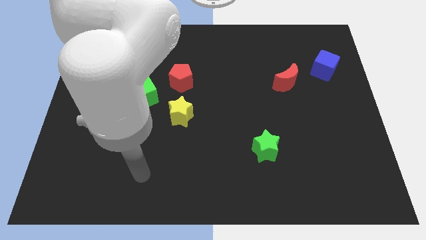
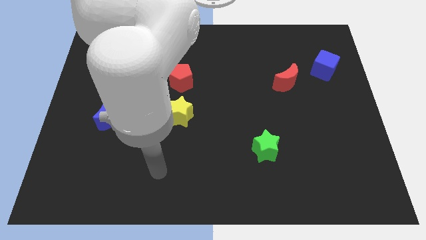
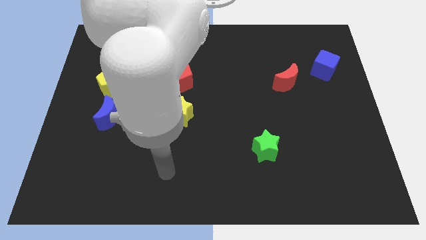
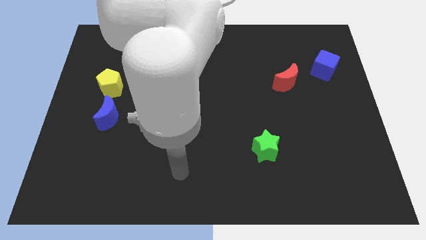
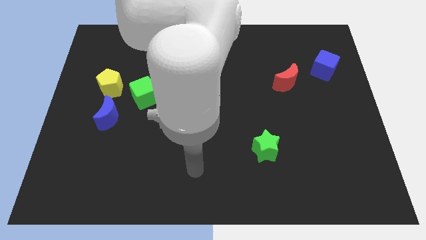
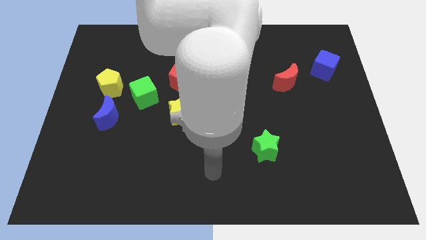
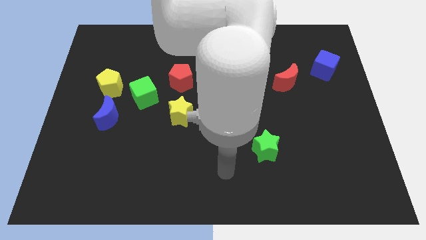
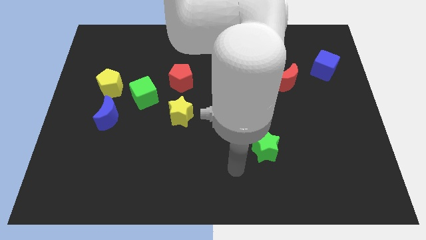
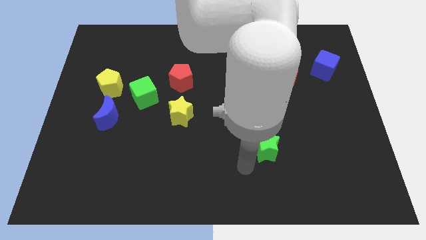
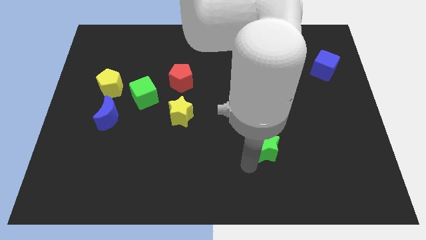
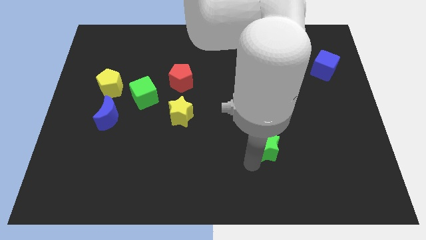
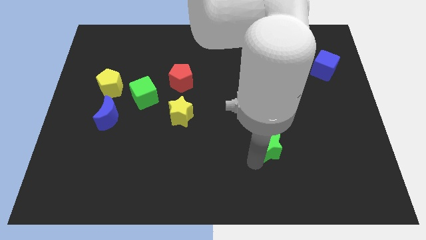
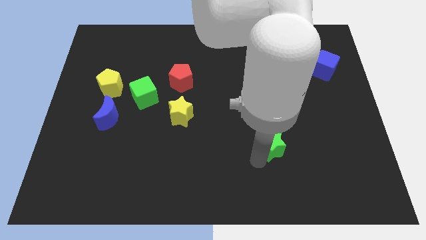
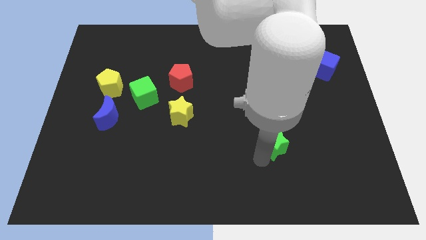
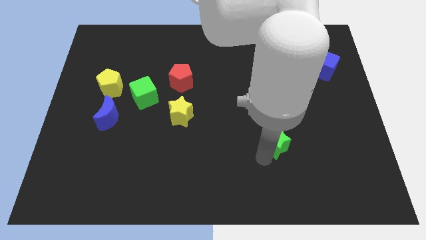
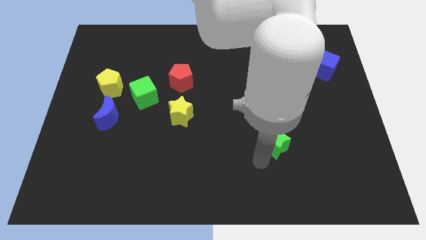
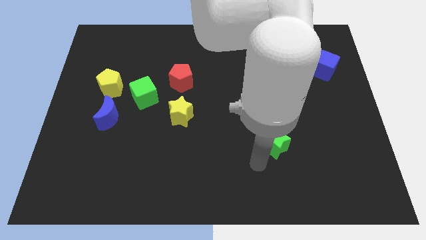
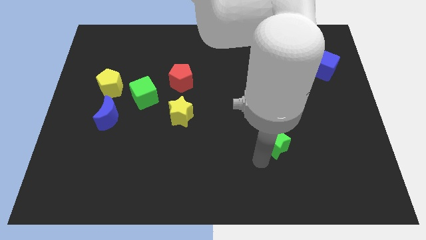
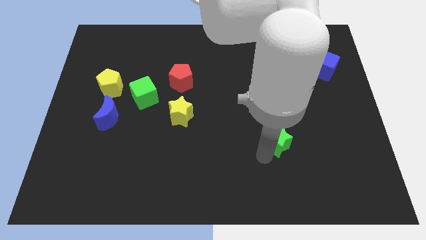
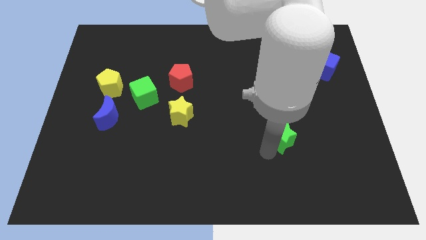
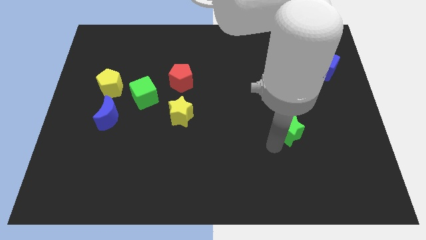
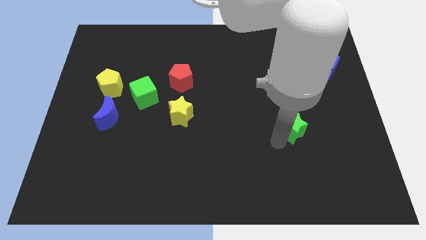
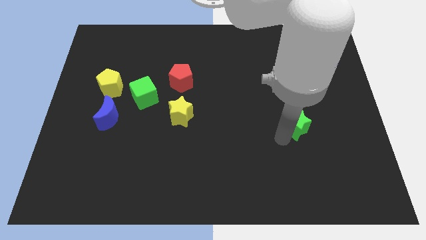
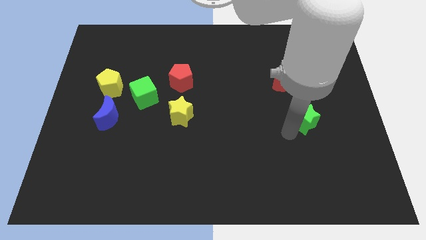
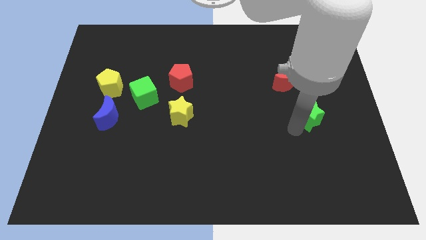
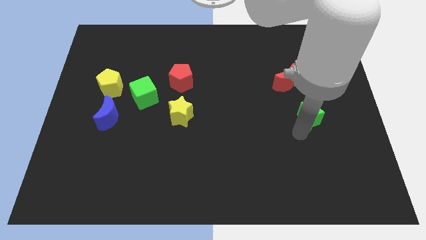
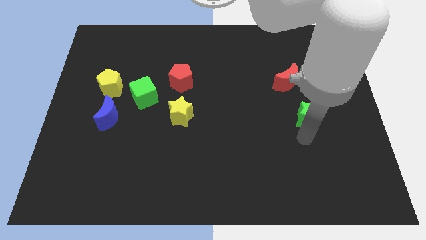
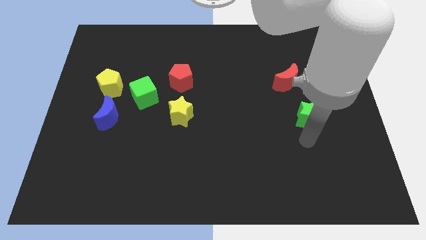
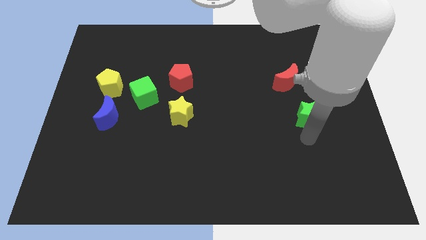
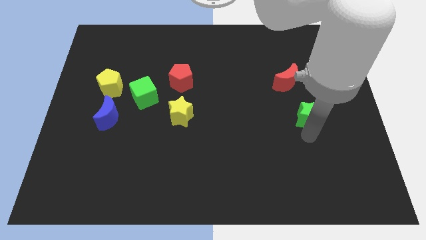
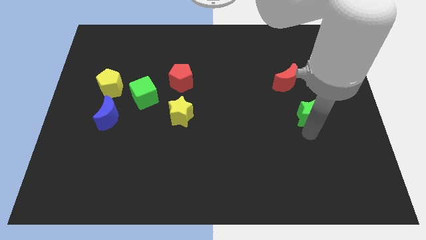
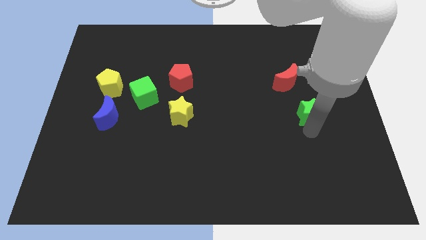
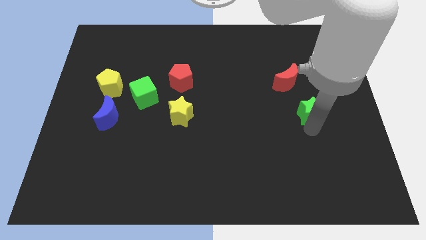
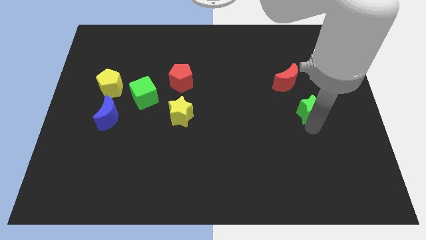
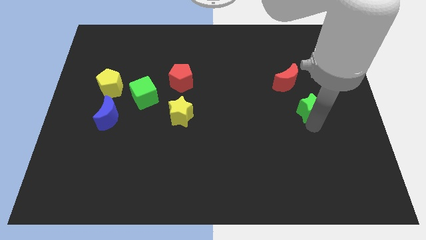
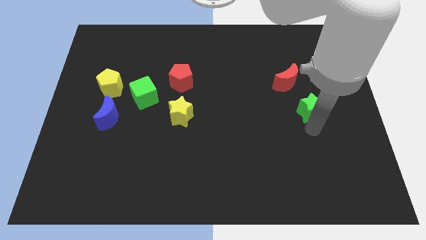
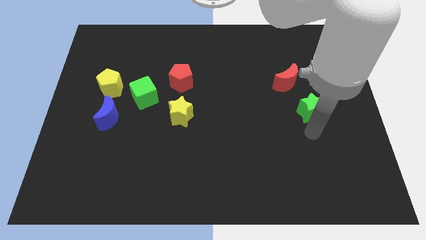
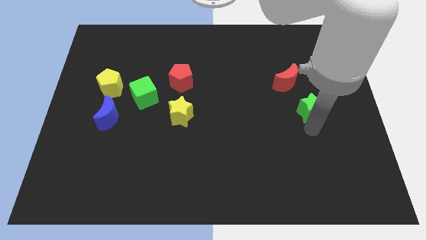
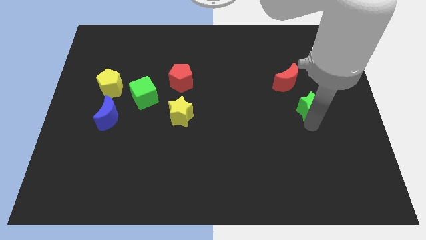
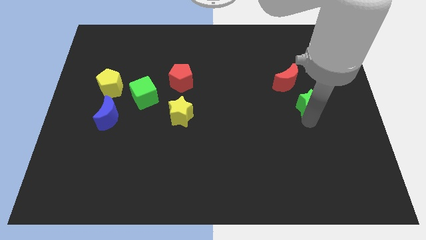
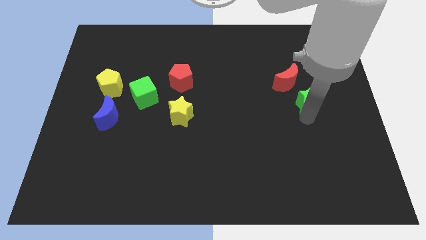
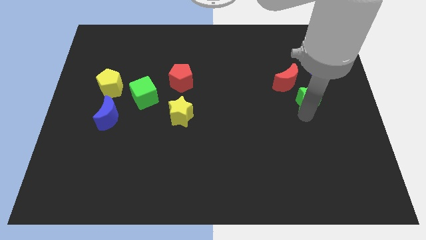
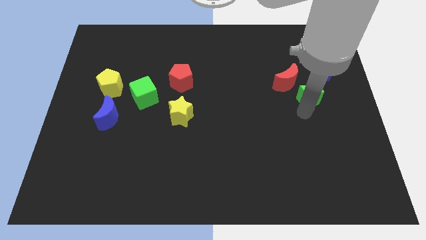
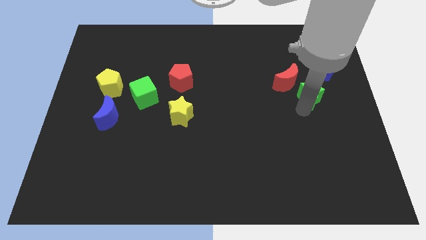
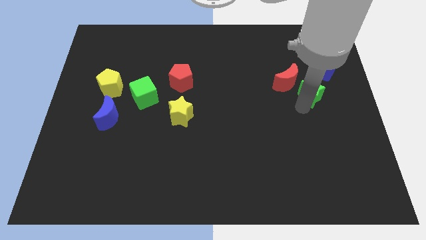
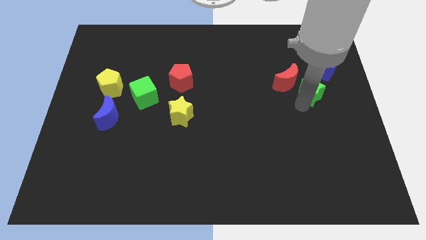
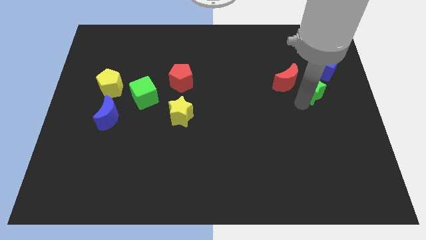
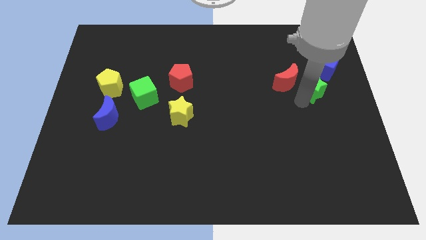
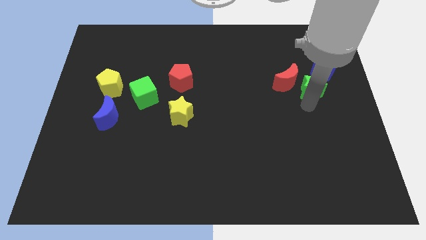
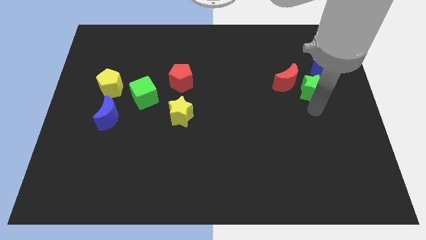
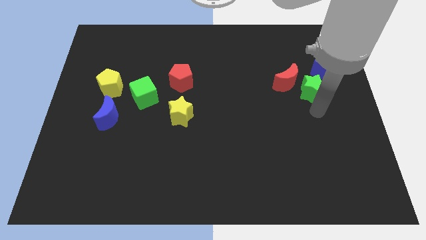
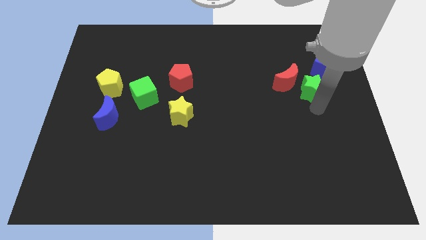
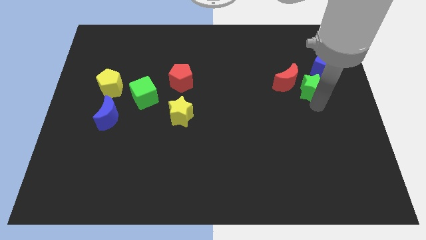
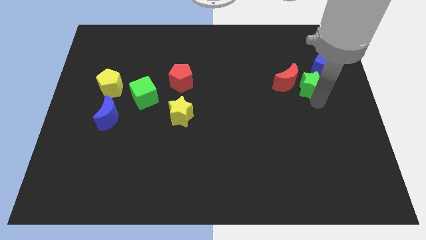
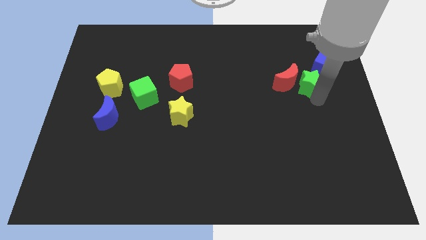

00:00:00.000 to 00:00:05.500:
move the green star diagonally up and to the right of the red moon

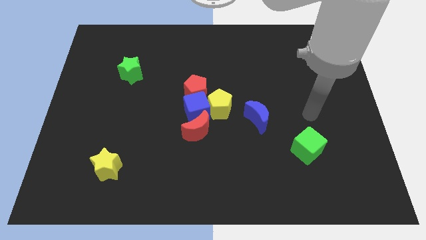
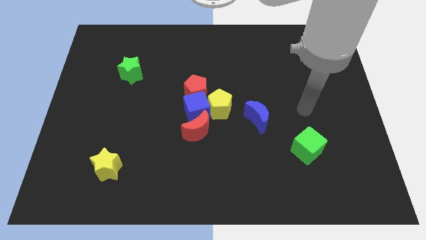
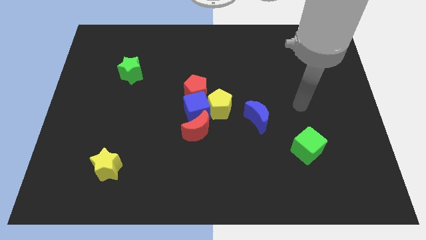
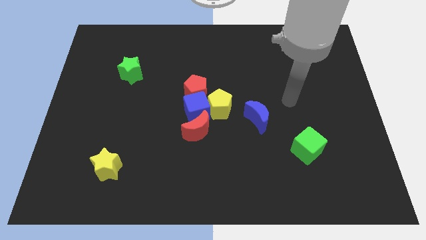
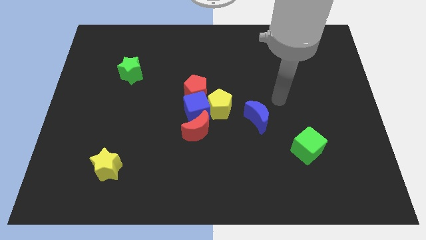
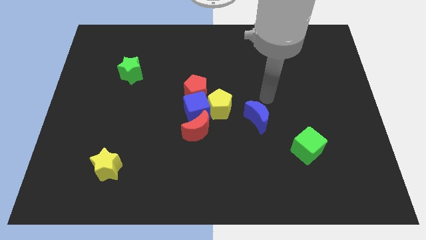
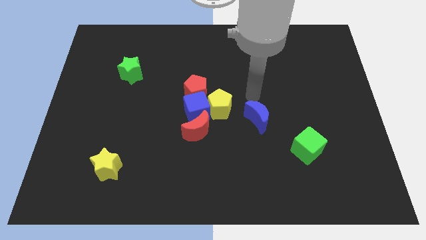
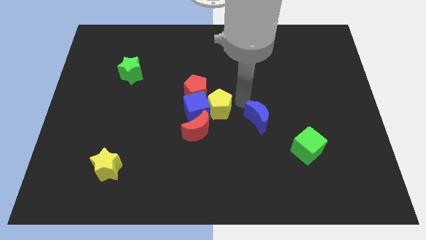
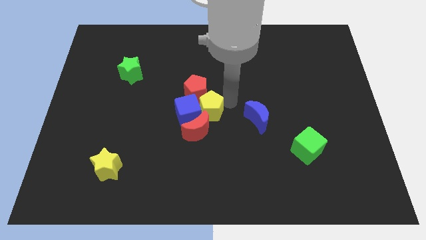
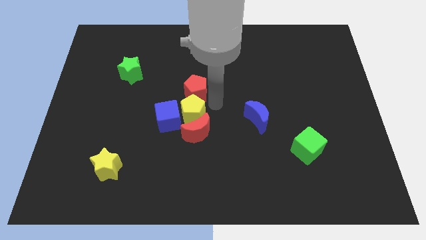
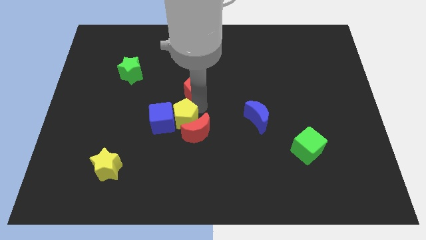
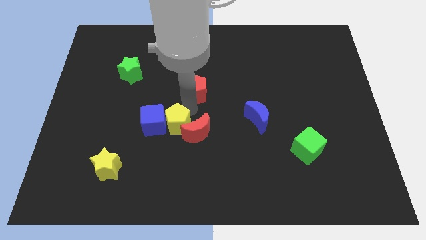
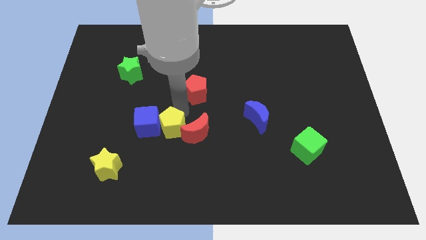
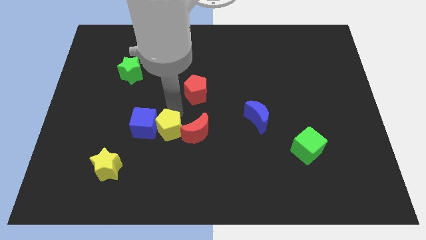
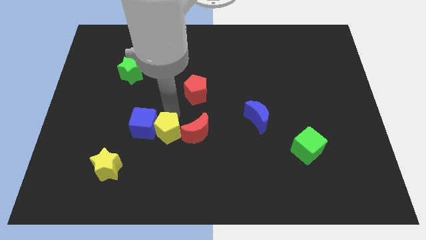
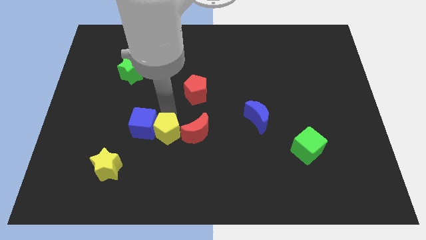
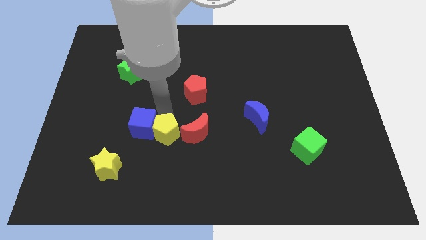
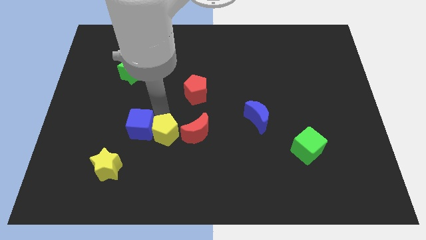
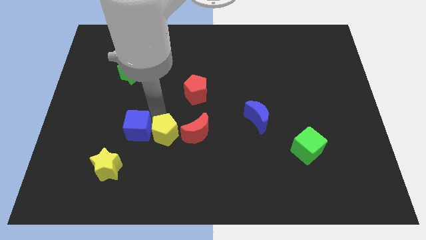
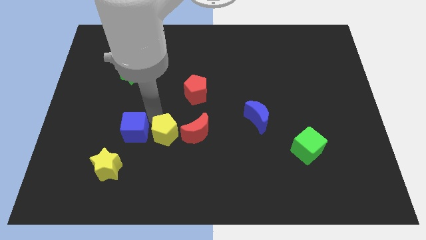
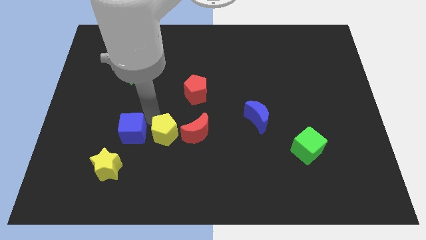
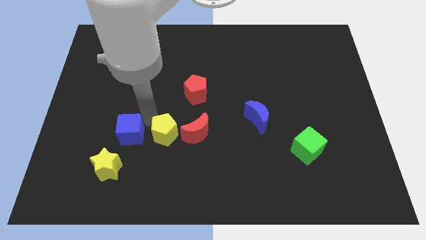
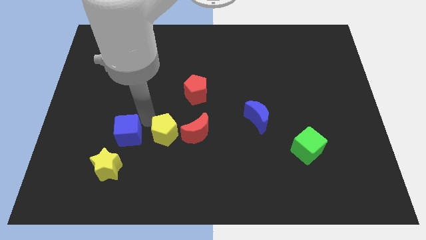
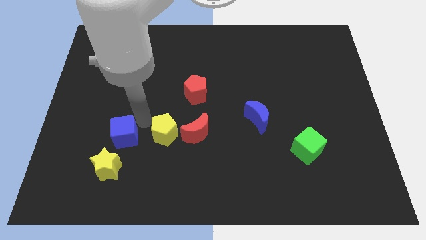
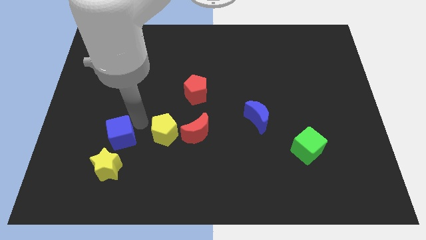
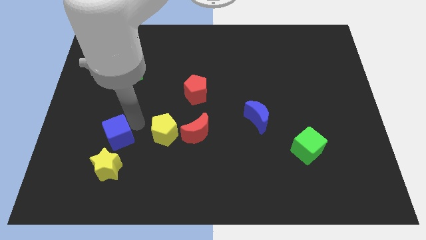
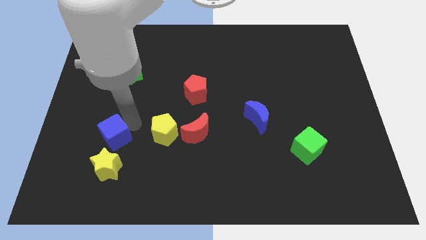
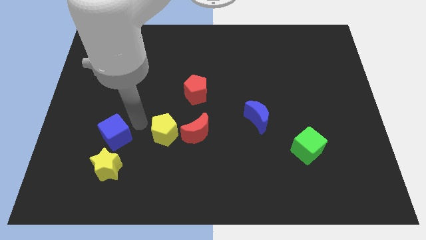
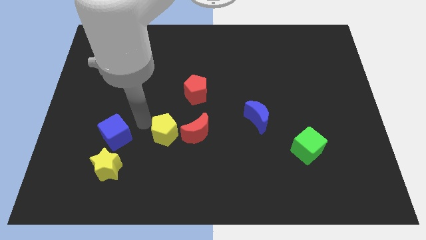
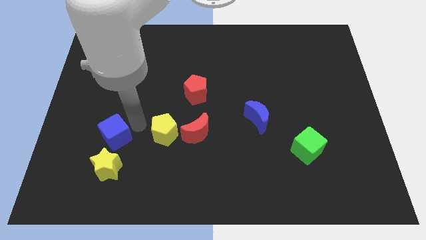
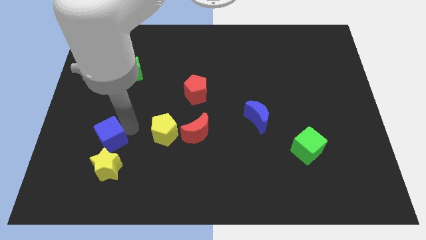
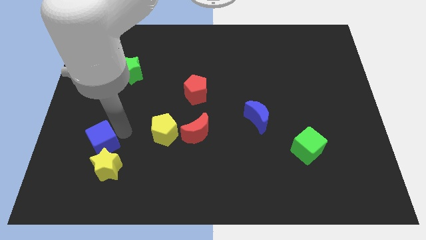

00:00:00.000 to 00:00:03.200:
move the blue cube to the top left of the yellow star
